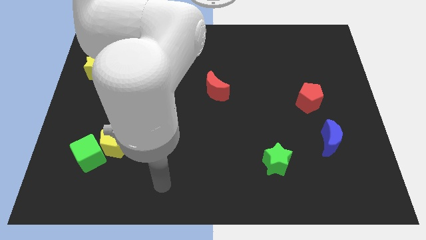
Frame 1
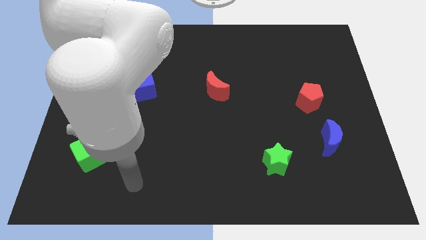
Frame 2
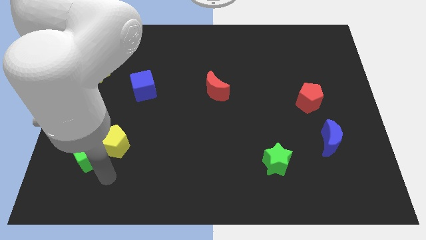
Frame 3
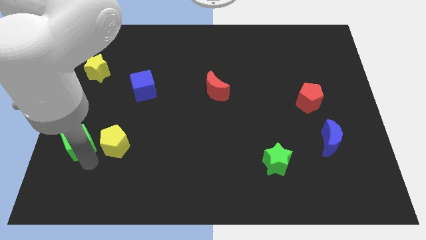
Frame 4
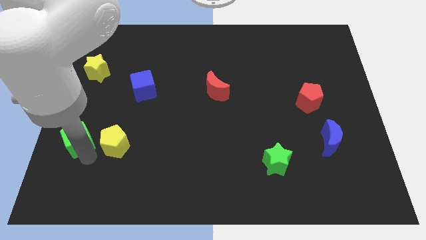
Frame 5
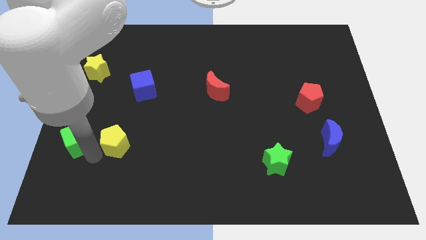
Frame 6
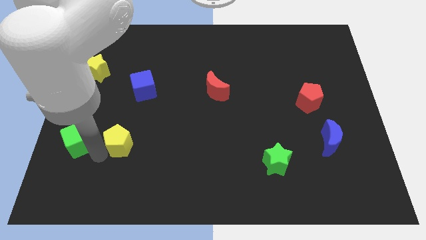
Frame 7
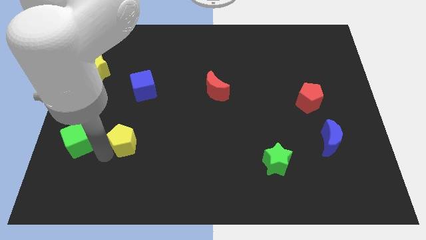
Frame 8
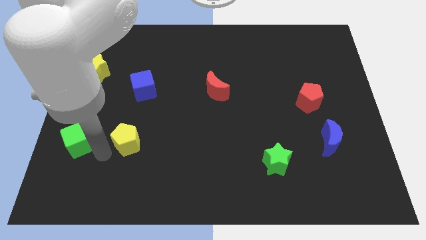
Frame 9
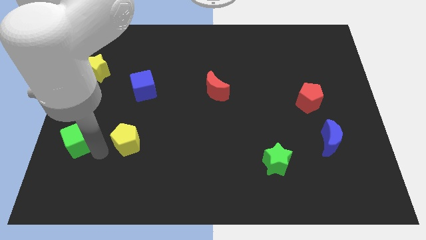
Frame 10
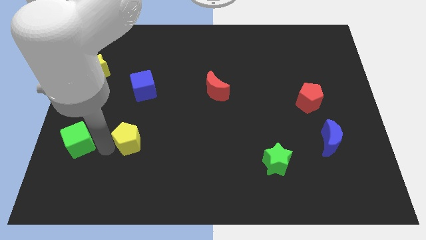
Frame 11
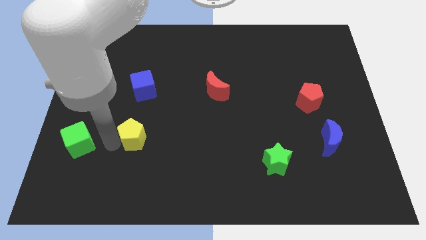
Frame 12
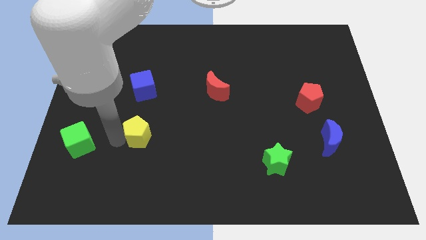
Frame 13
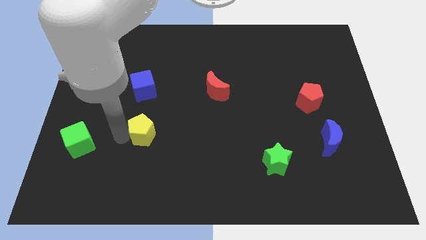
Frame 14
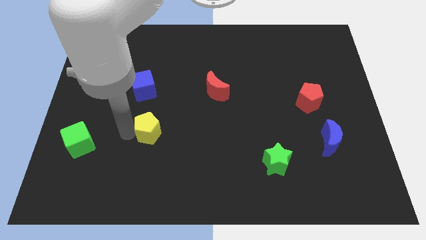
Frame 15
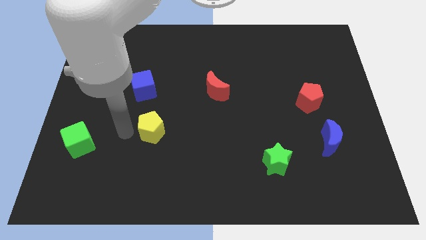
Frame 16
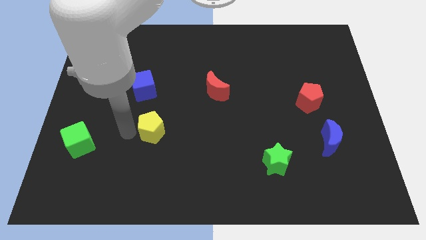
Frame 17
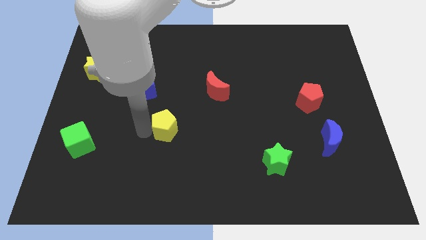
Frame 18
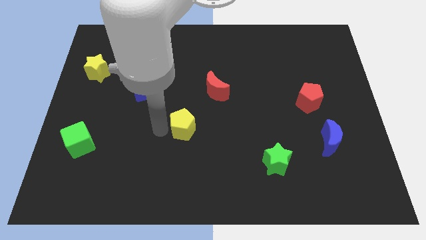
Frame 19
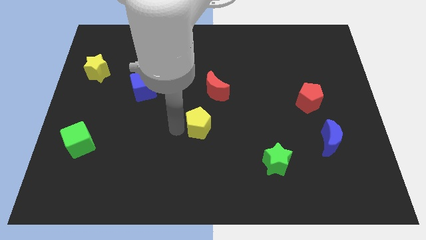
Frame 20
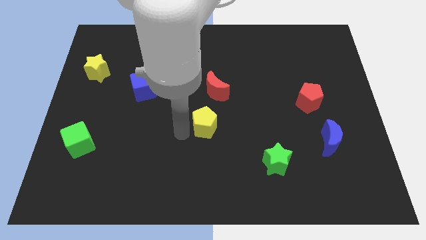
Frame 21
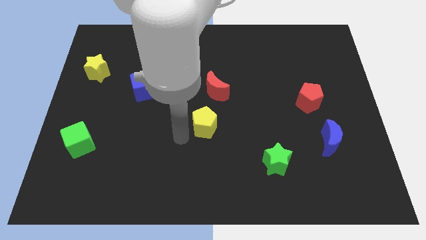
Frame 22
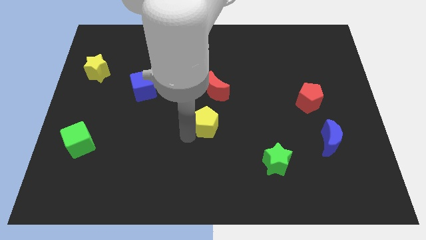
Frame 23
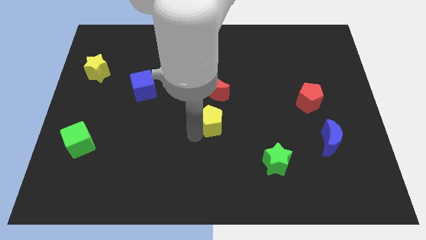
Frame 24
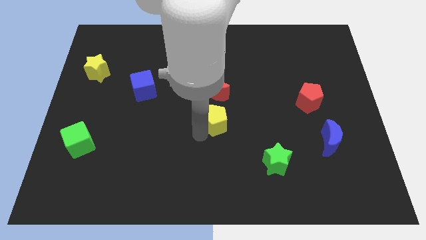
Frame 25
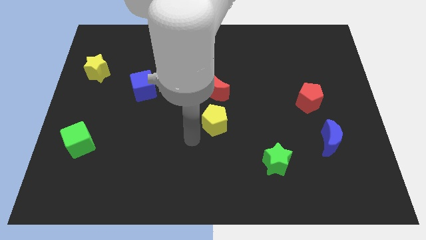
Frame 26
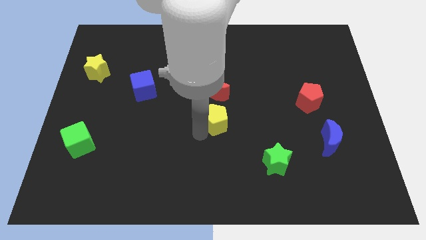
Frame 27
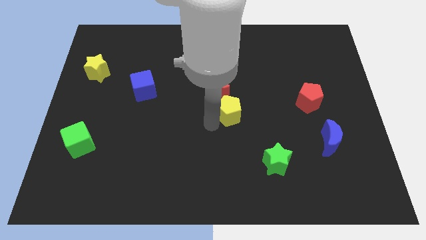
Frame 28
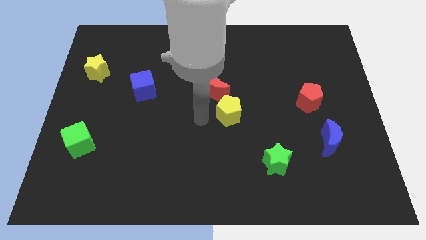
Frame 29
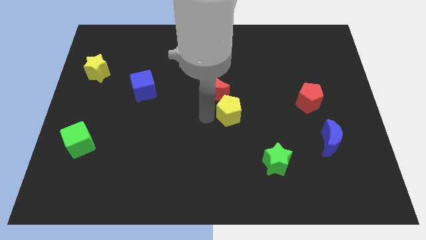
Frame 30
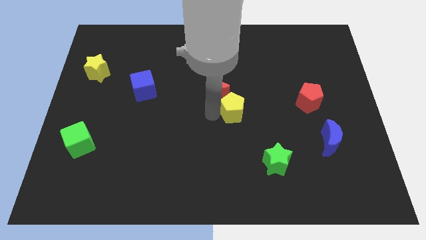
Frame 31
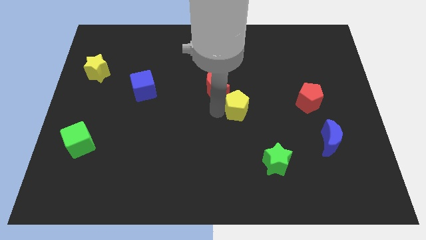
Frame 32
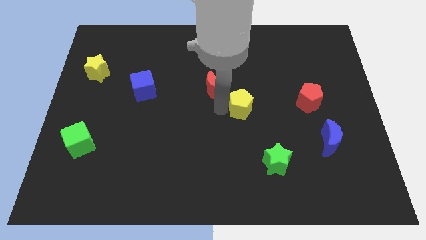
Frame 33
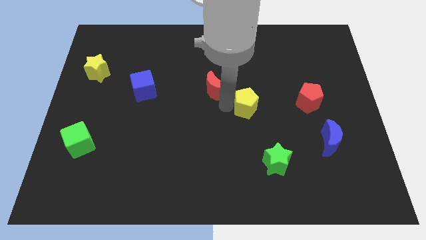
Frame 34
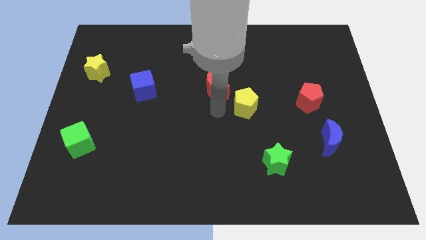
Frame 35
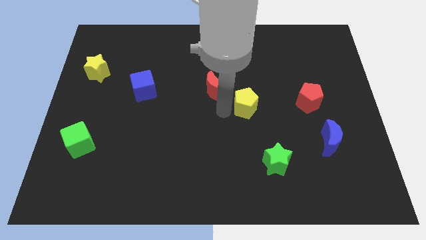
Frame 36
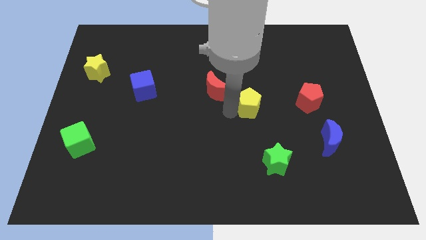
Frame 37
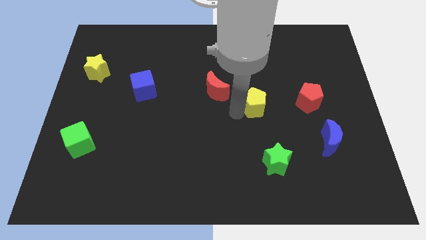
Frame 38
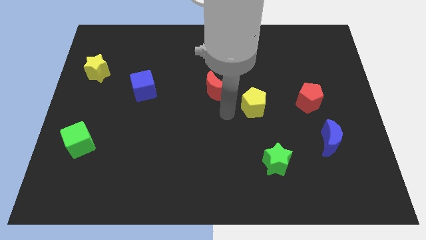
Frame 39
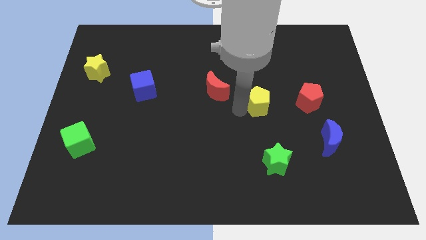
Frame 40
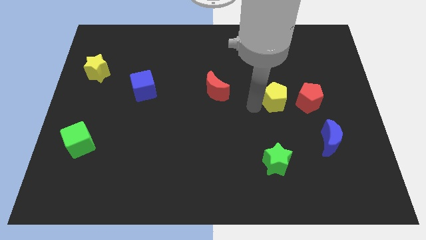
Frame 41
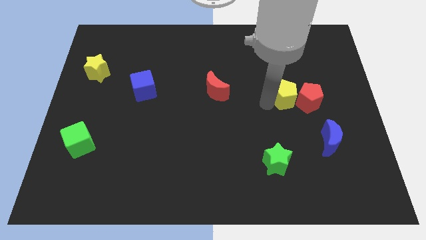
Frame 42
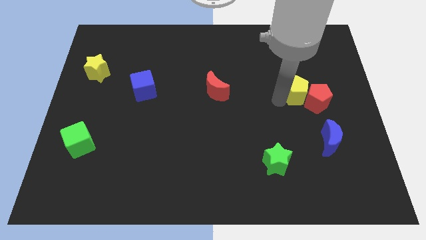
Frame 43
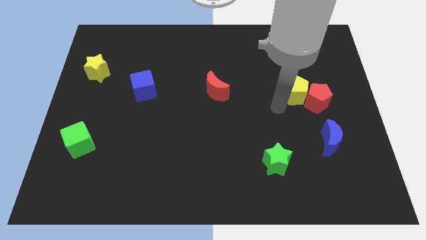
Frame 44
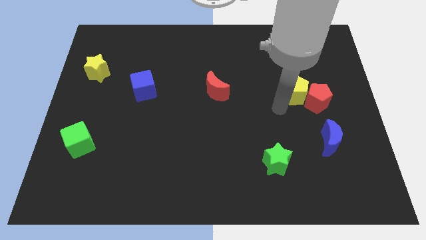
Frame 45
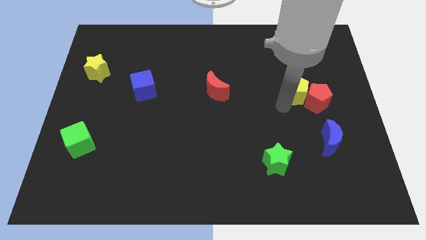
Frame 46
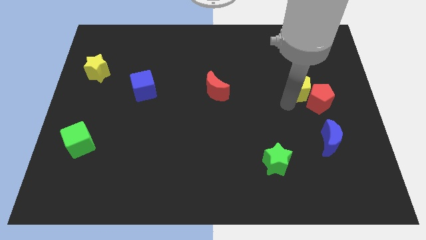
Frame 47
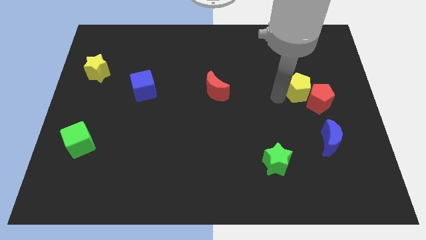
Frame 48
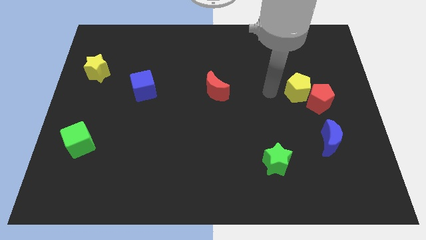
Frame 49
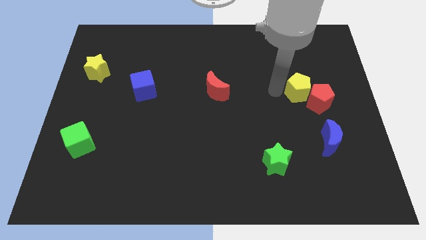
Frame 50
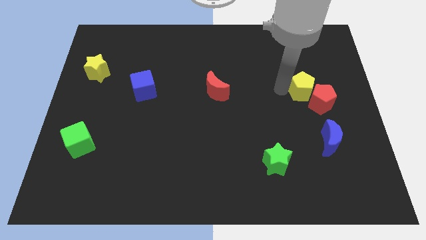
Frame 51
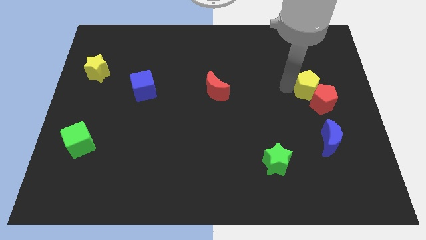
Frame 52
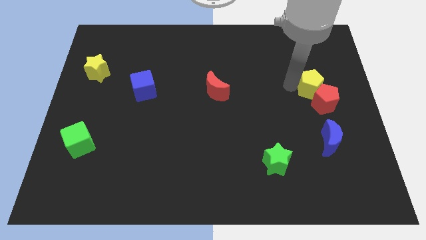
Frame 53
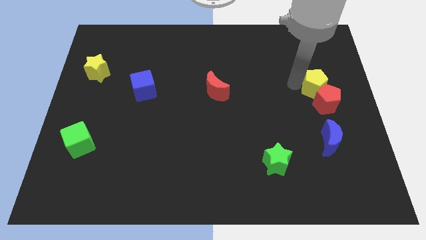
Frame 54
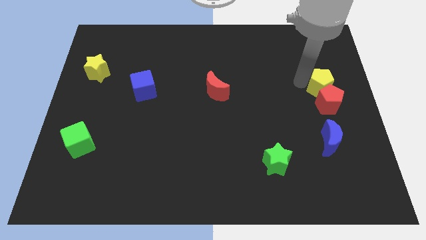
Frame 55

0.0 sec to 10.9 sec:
push the yellow pentagon to the right side

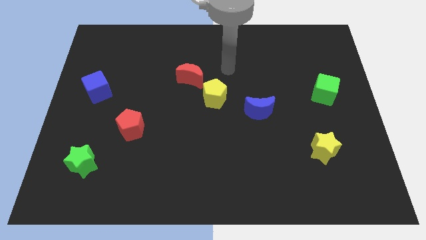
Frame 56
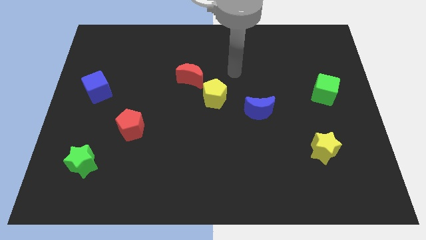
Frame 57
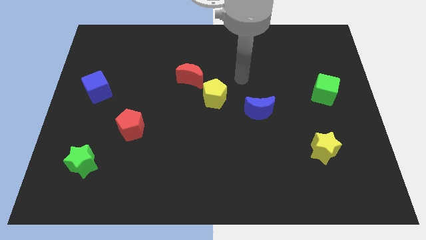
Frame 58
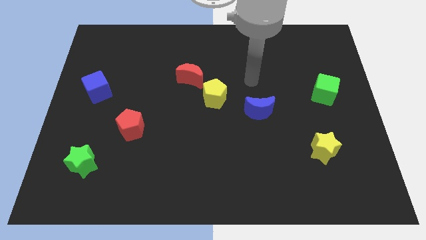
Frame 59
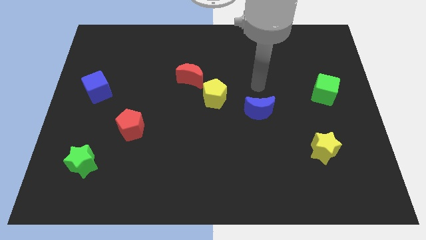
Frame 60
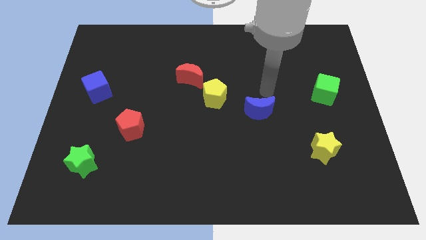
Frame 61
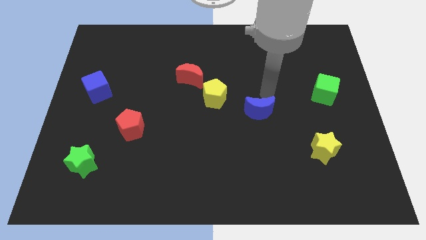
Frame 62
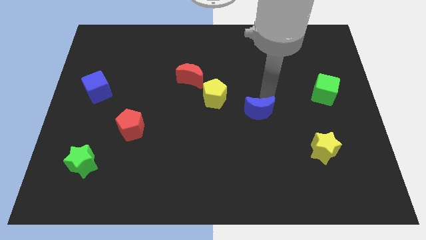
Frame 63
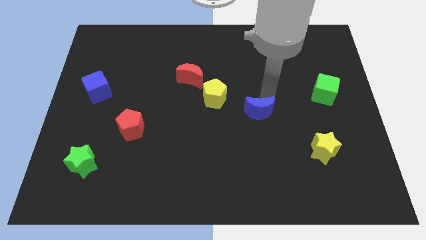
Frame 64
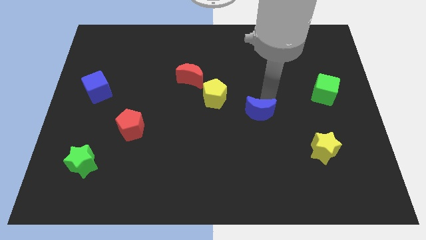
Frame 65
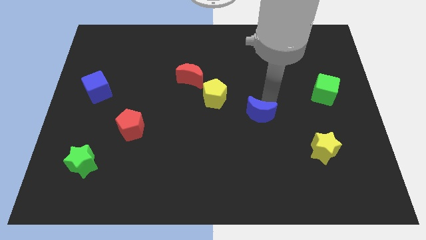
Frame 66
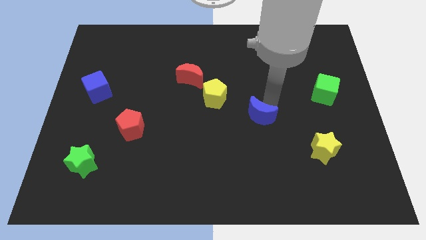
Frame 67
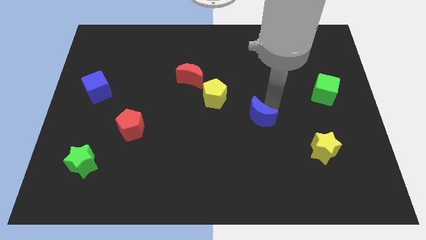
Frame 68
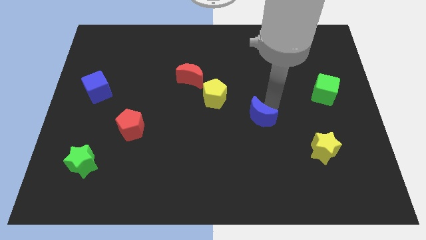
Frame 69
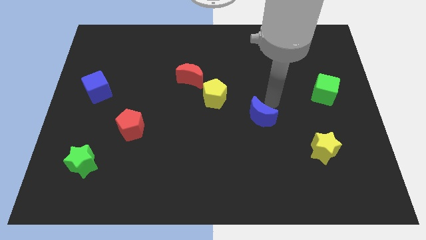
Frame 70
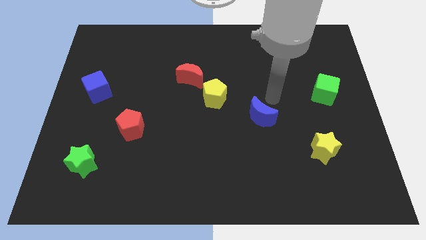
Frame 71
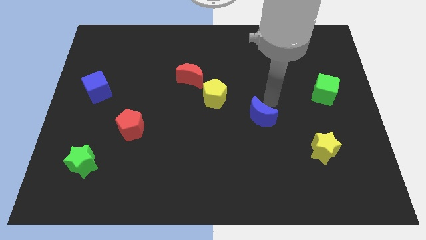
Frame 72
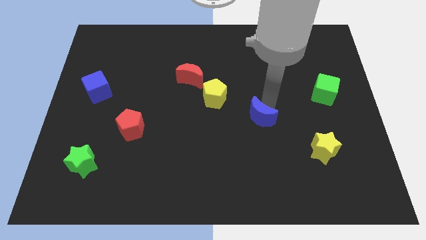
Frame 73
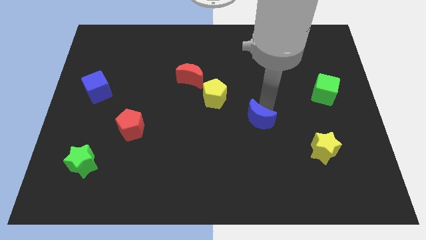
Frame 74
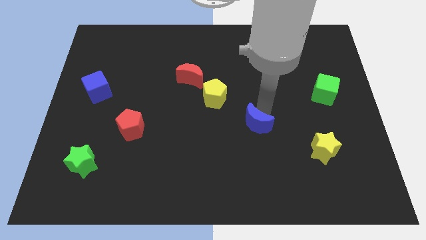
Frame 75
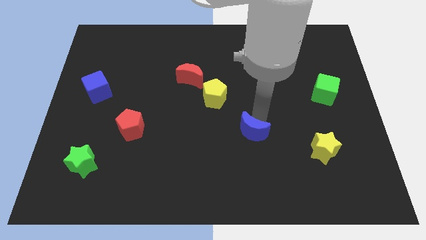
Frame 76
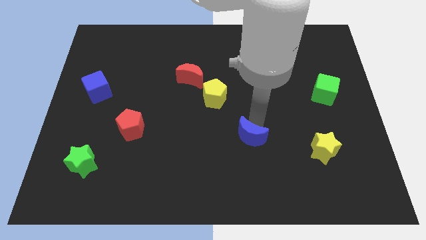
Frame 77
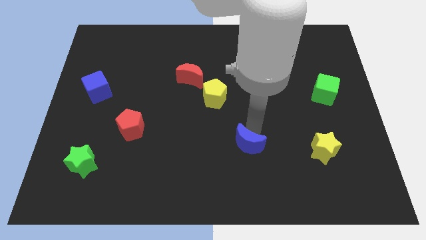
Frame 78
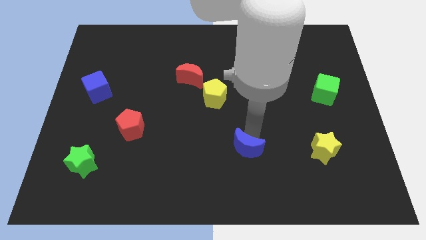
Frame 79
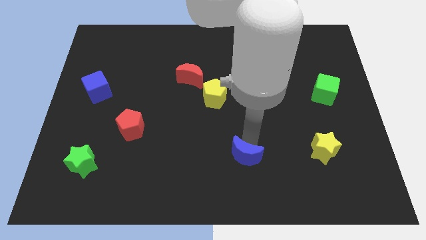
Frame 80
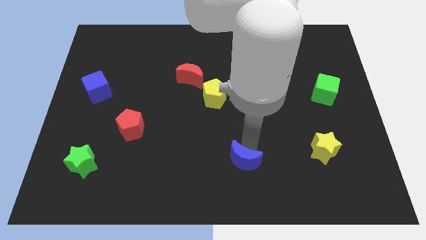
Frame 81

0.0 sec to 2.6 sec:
push the blue moon to the bottom
